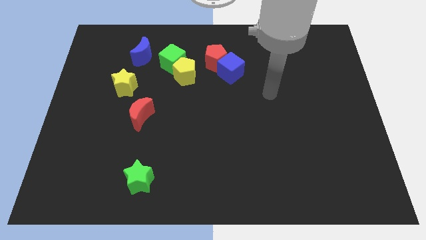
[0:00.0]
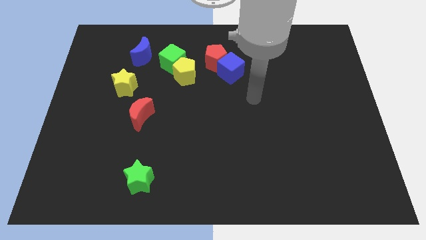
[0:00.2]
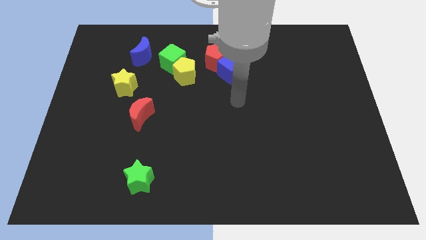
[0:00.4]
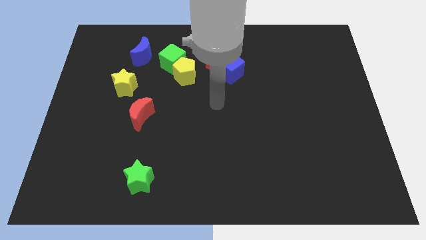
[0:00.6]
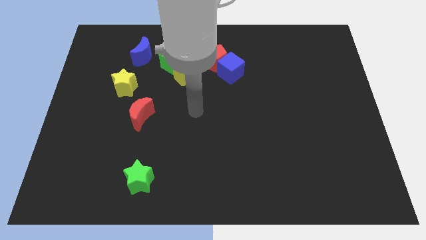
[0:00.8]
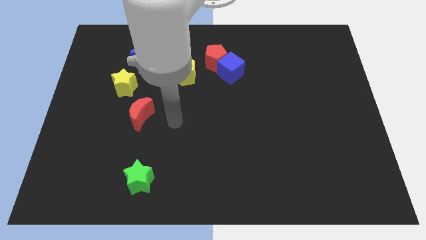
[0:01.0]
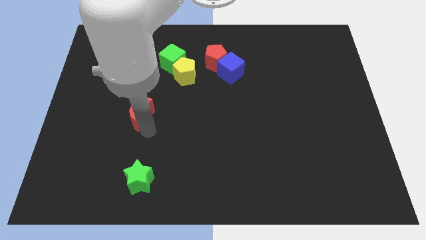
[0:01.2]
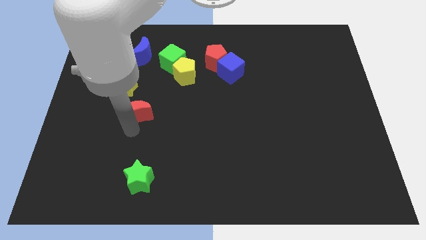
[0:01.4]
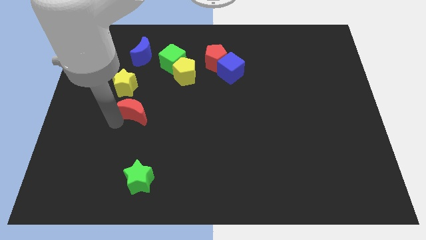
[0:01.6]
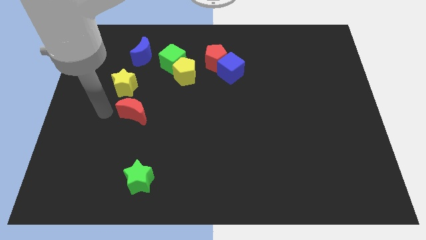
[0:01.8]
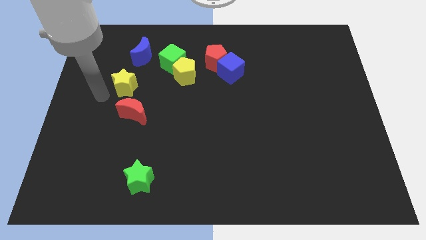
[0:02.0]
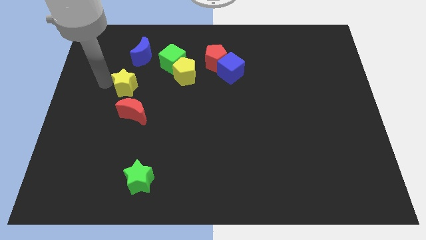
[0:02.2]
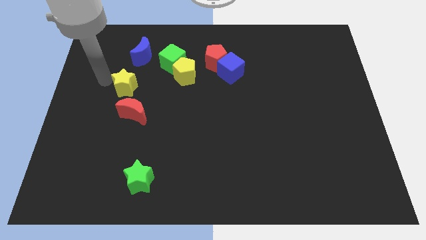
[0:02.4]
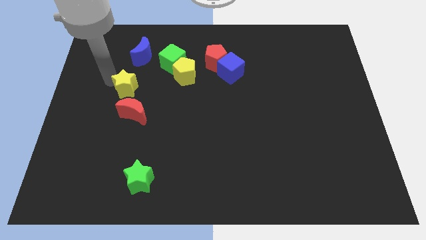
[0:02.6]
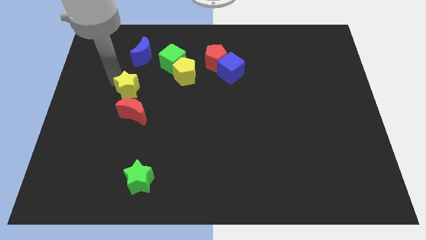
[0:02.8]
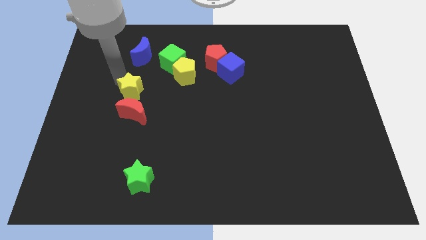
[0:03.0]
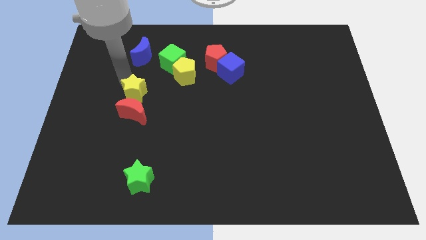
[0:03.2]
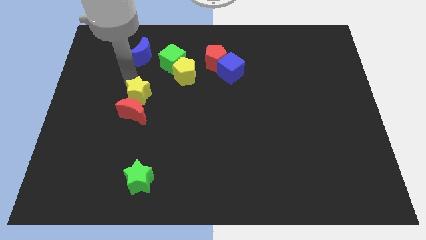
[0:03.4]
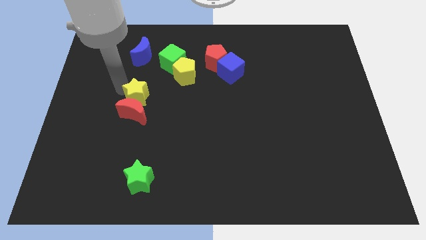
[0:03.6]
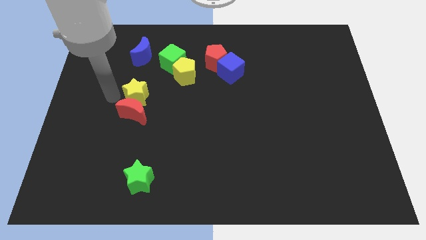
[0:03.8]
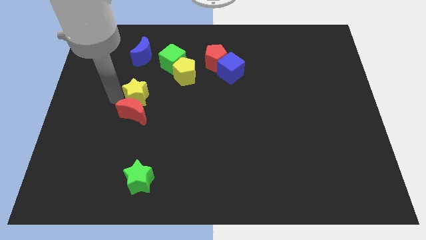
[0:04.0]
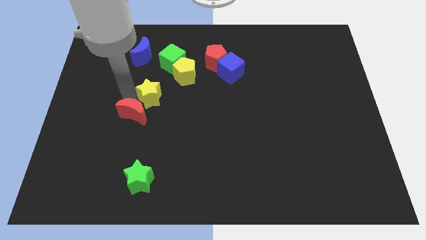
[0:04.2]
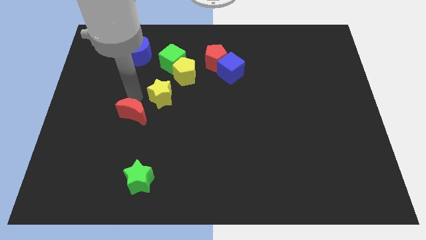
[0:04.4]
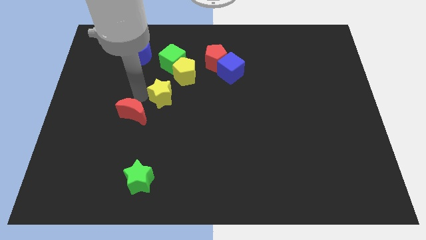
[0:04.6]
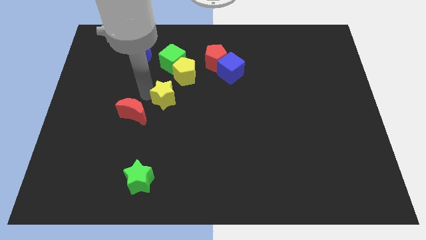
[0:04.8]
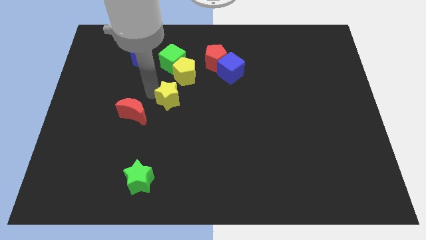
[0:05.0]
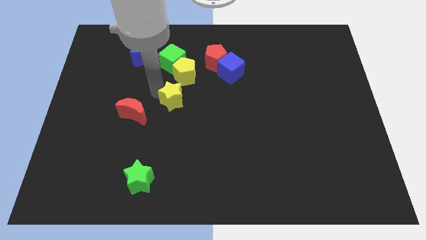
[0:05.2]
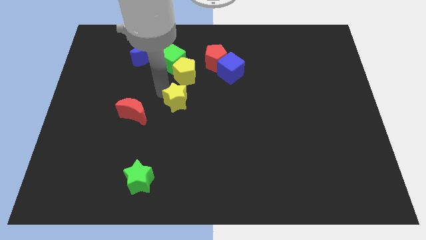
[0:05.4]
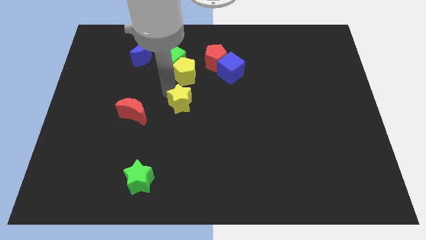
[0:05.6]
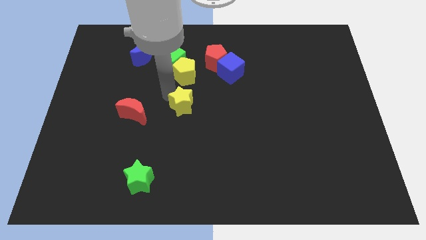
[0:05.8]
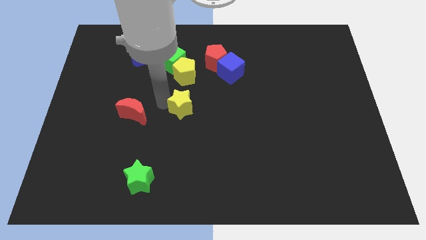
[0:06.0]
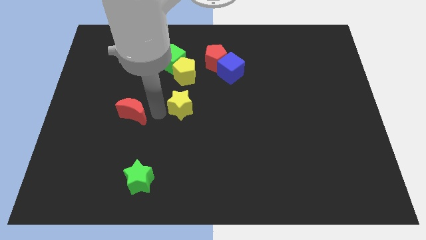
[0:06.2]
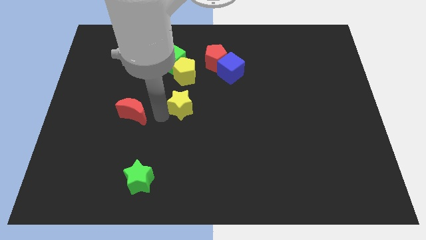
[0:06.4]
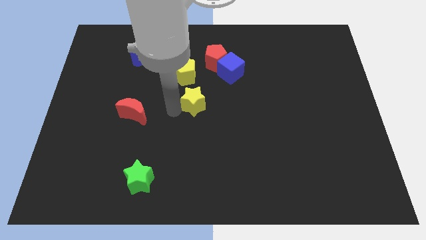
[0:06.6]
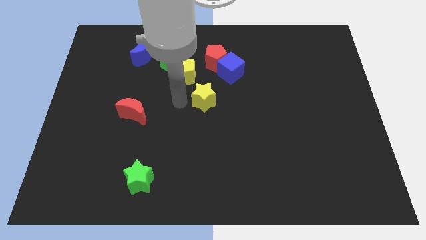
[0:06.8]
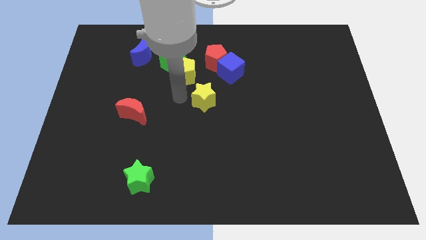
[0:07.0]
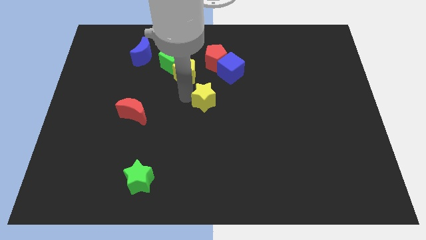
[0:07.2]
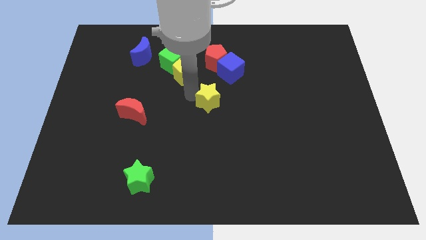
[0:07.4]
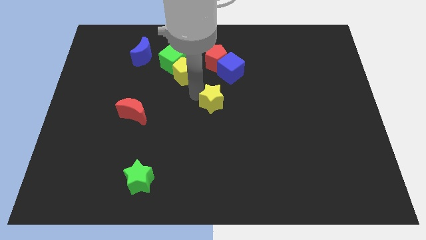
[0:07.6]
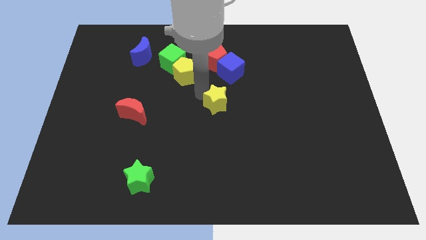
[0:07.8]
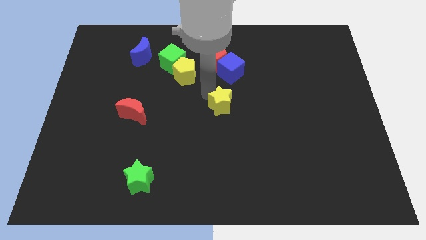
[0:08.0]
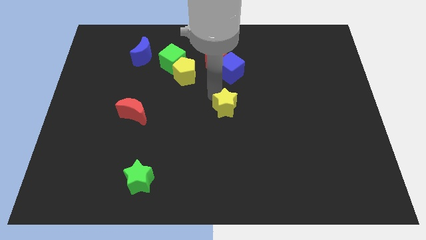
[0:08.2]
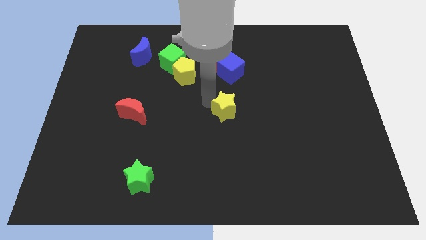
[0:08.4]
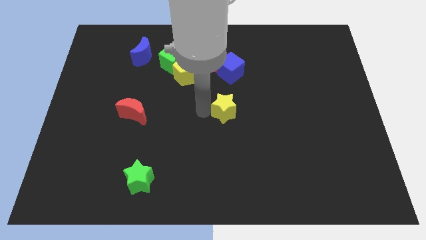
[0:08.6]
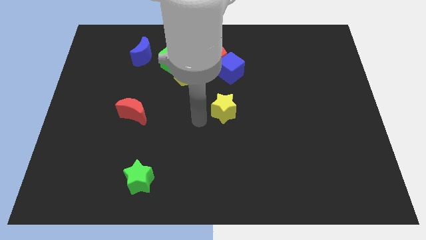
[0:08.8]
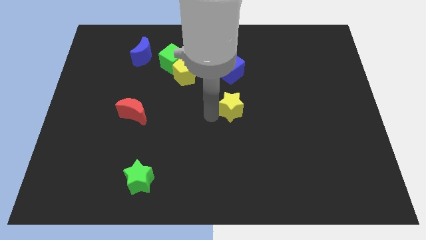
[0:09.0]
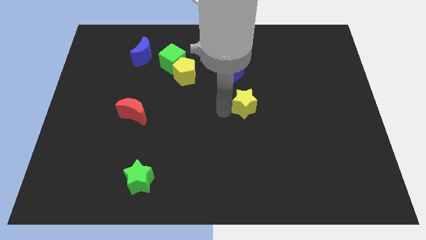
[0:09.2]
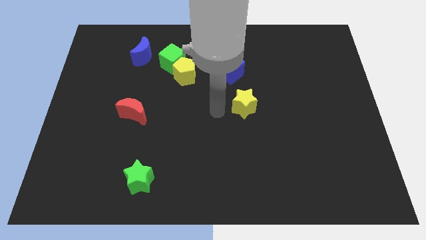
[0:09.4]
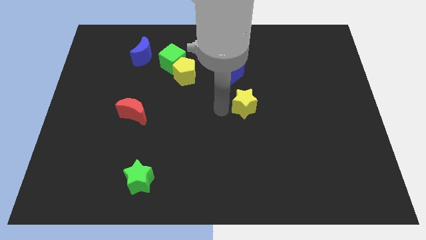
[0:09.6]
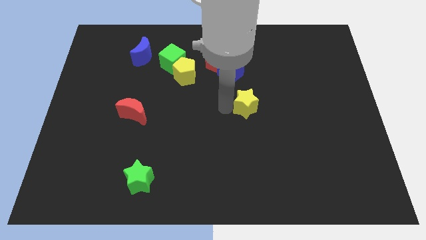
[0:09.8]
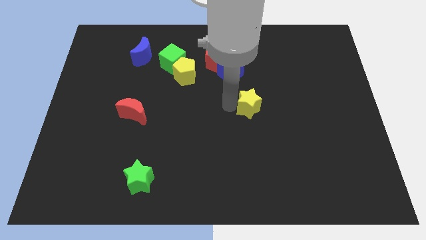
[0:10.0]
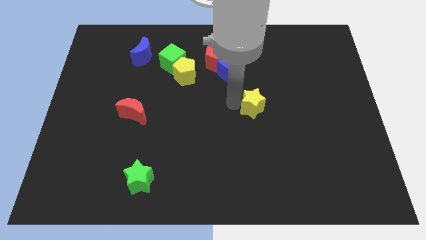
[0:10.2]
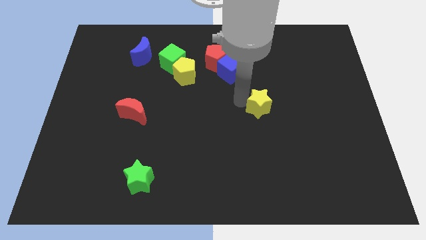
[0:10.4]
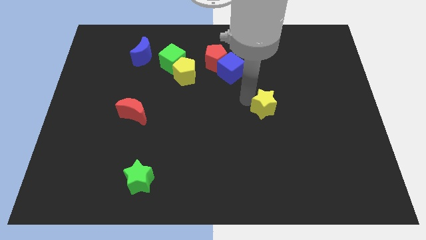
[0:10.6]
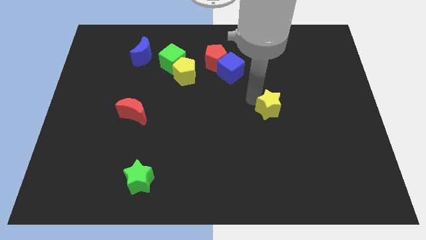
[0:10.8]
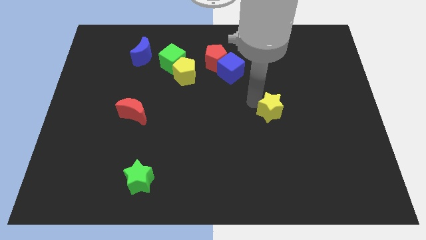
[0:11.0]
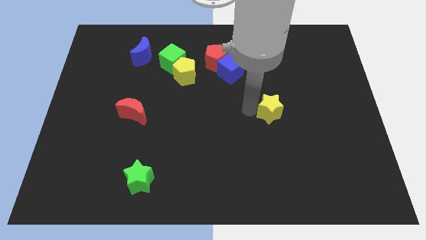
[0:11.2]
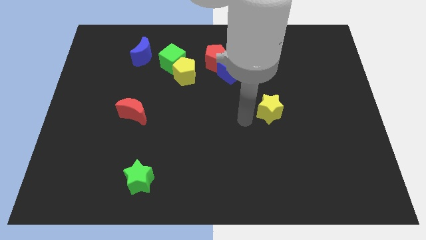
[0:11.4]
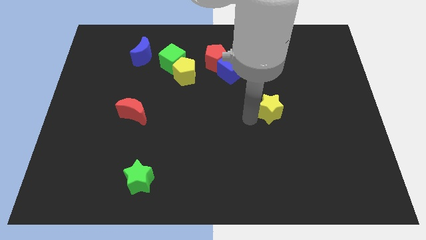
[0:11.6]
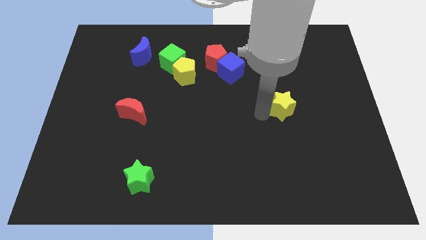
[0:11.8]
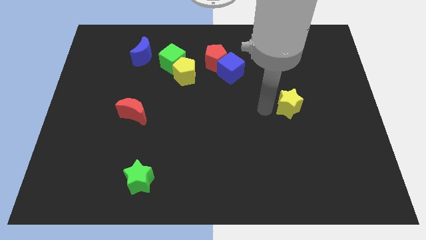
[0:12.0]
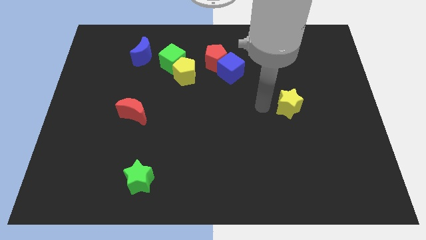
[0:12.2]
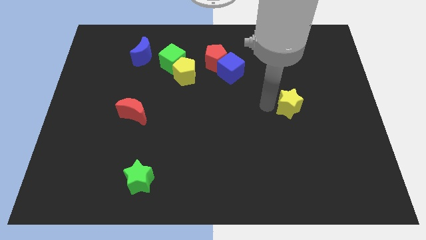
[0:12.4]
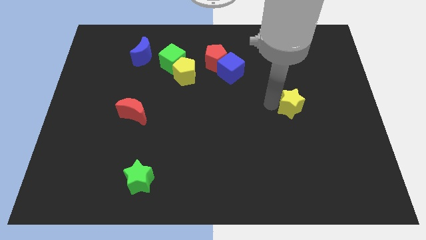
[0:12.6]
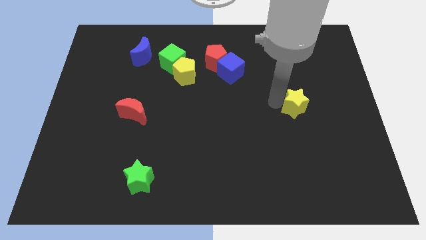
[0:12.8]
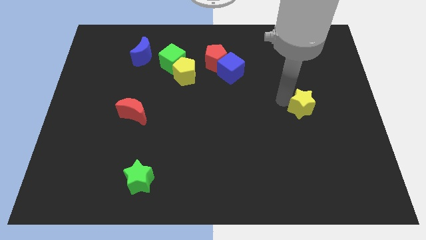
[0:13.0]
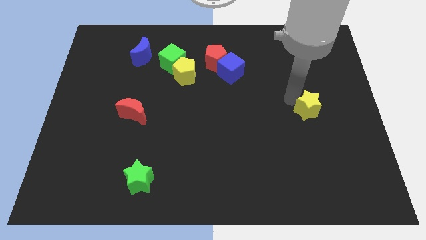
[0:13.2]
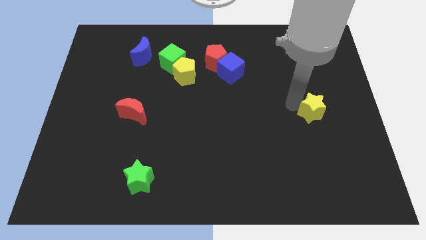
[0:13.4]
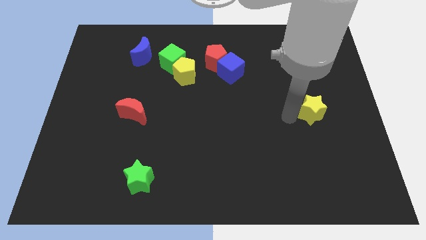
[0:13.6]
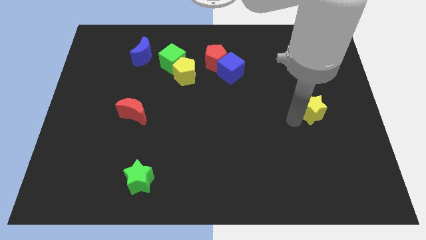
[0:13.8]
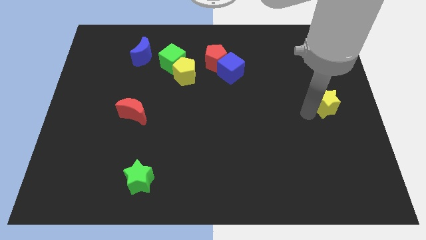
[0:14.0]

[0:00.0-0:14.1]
push the yellow star to the right side

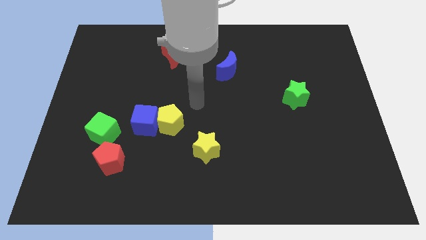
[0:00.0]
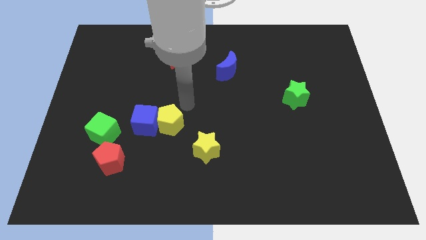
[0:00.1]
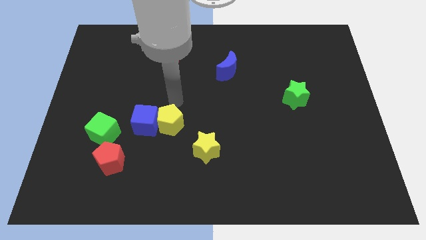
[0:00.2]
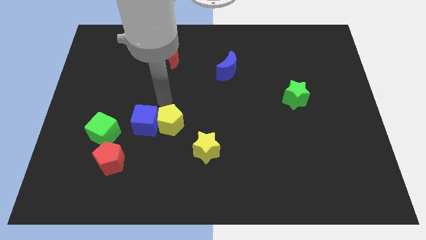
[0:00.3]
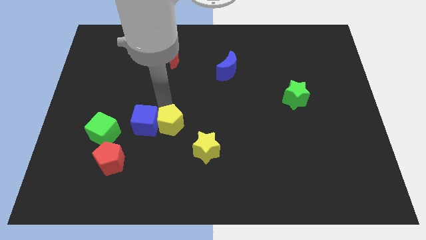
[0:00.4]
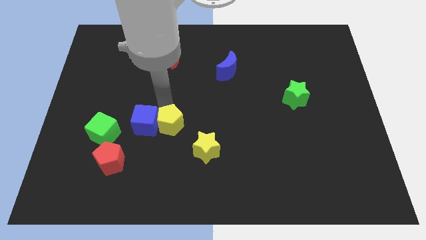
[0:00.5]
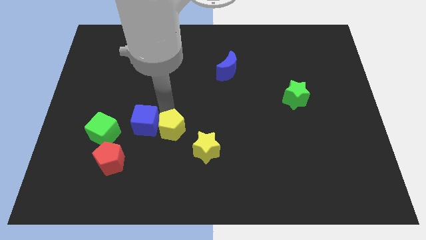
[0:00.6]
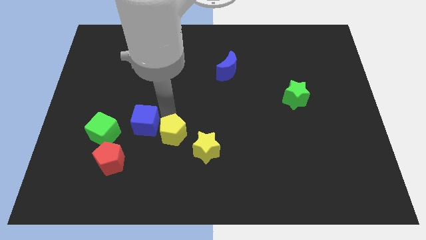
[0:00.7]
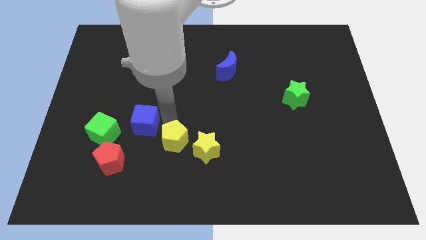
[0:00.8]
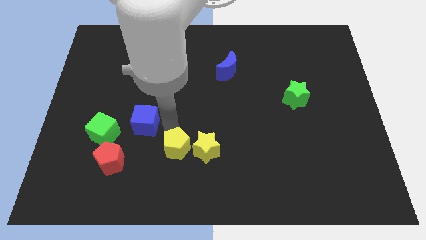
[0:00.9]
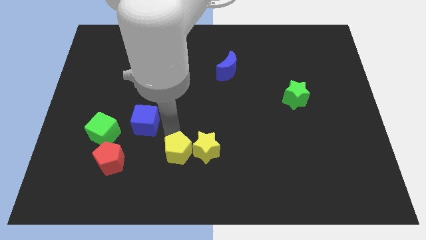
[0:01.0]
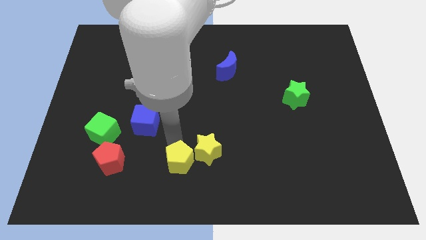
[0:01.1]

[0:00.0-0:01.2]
put the yellow pentagon to the bottom
